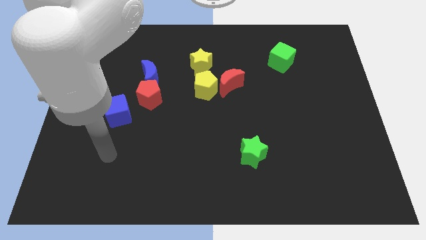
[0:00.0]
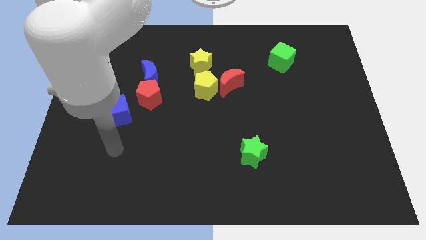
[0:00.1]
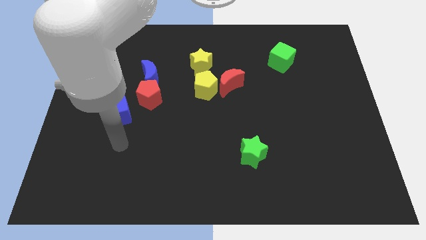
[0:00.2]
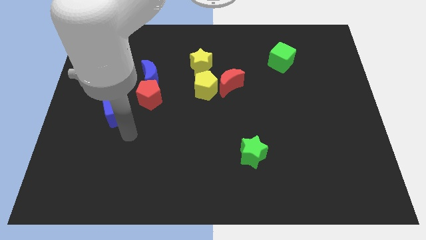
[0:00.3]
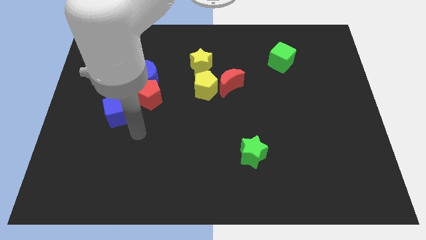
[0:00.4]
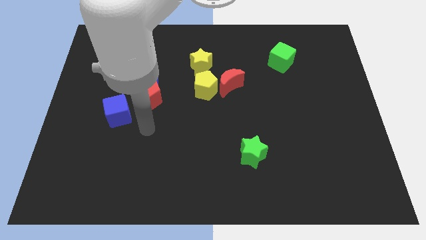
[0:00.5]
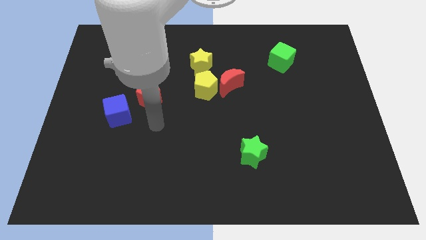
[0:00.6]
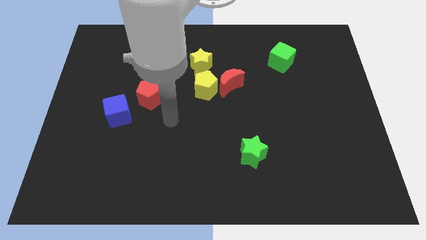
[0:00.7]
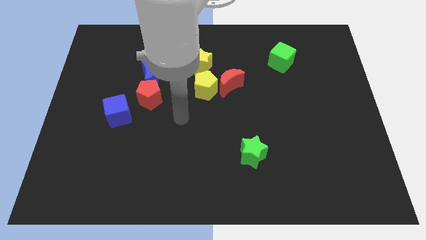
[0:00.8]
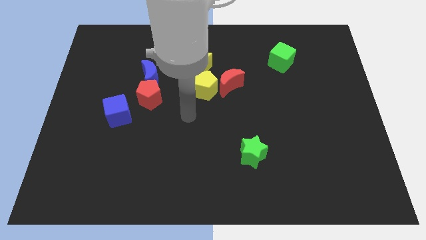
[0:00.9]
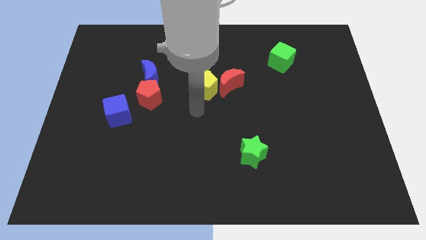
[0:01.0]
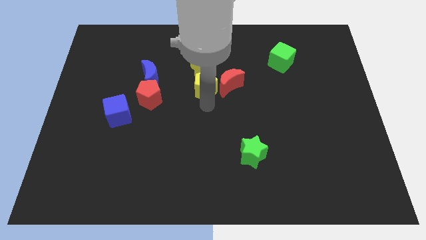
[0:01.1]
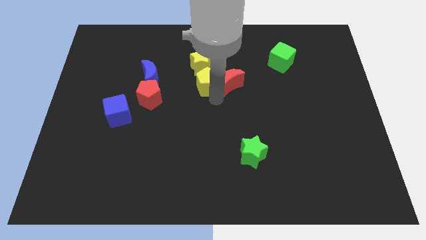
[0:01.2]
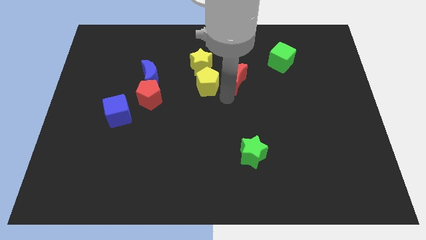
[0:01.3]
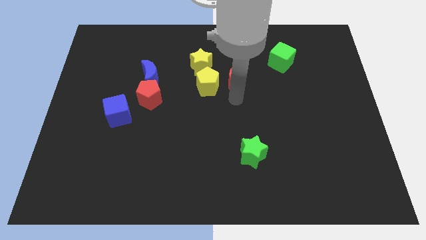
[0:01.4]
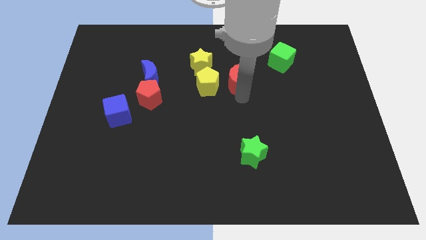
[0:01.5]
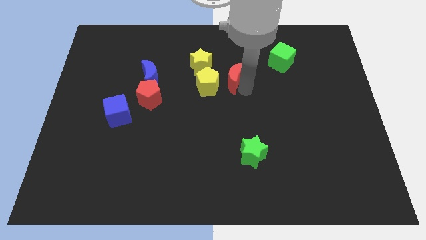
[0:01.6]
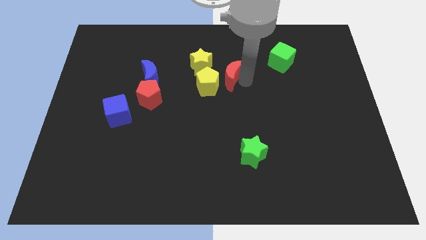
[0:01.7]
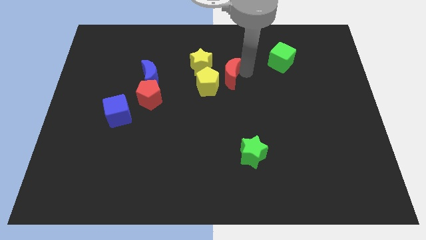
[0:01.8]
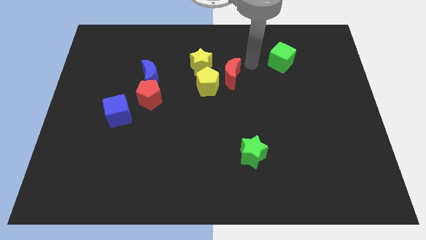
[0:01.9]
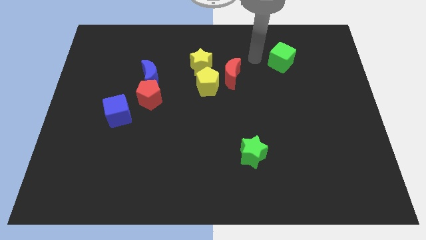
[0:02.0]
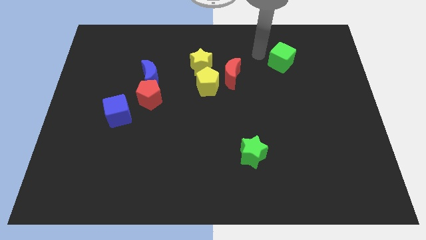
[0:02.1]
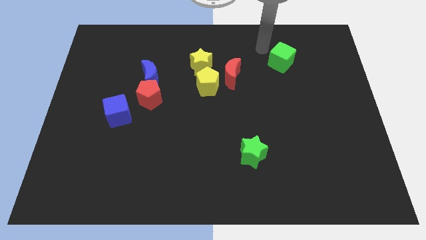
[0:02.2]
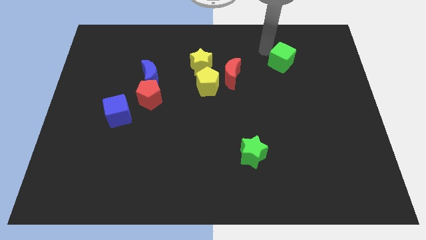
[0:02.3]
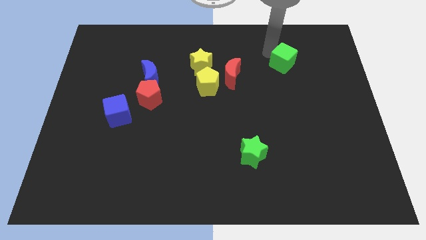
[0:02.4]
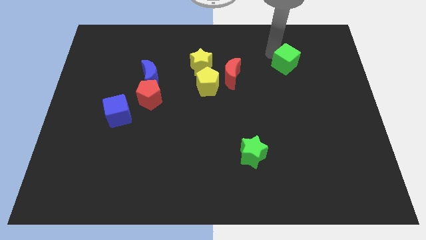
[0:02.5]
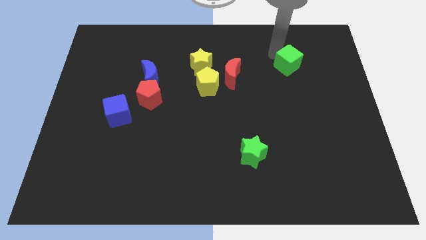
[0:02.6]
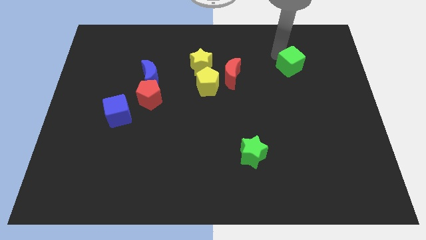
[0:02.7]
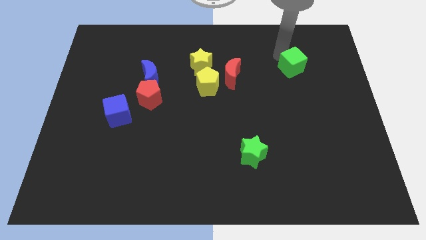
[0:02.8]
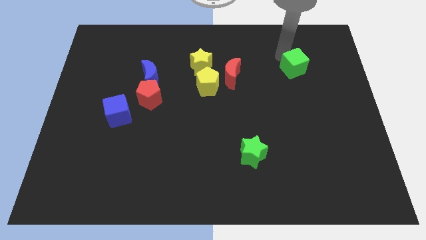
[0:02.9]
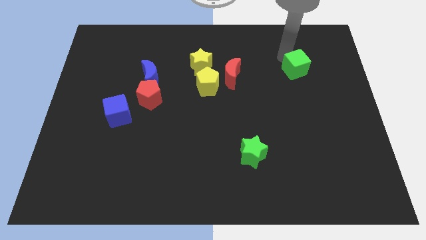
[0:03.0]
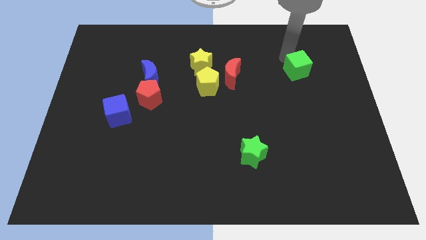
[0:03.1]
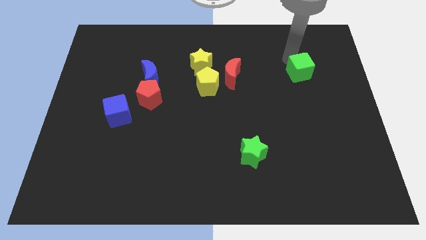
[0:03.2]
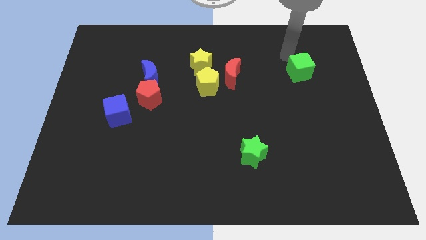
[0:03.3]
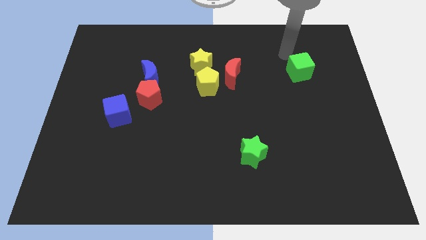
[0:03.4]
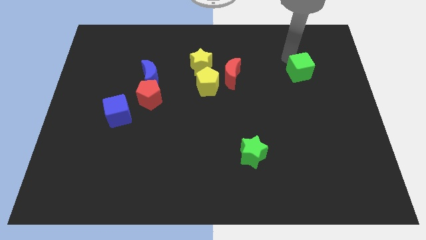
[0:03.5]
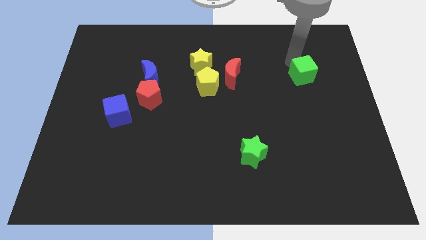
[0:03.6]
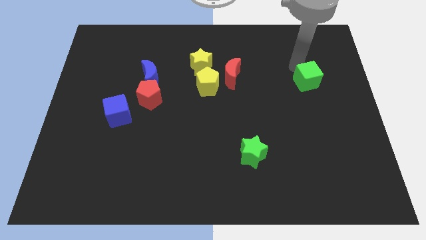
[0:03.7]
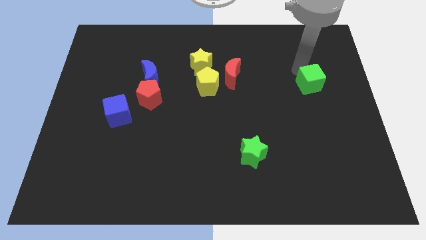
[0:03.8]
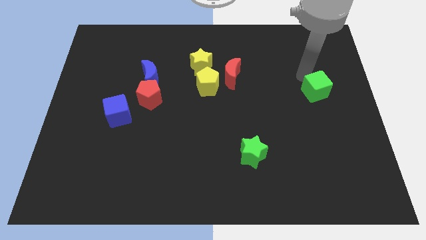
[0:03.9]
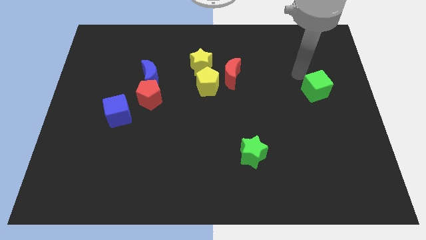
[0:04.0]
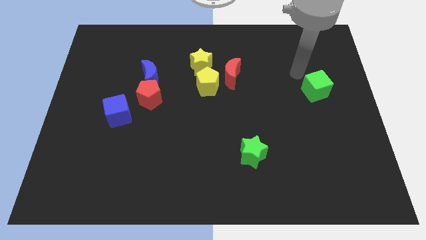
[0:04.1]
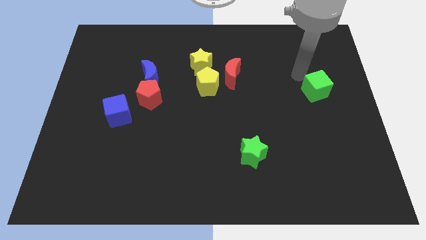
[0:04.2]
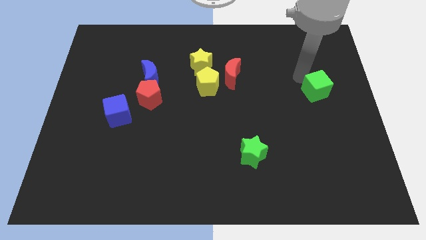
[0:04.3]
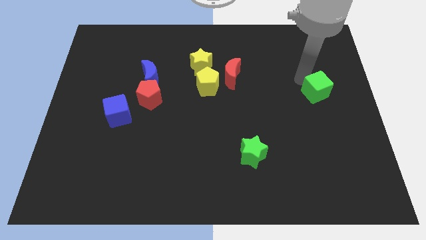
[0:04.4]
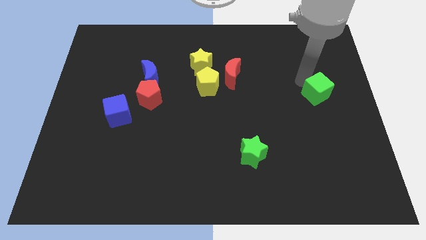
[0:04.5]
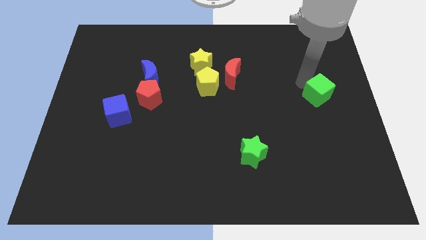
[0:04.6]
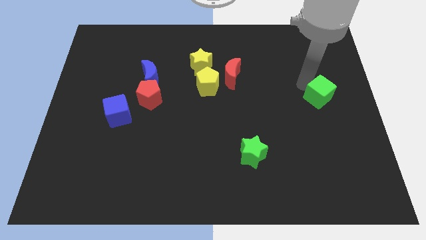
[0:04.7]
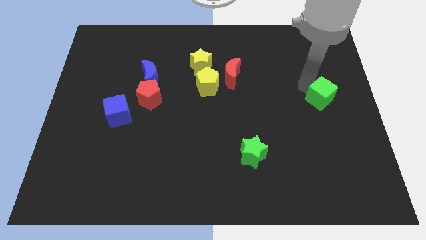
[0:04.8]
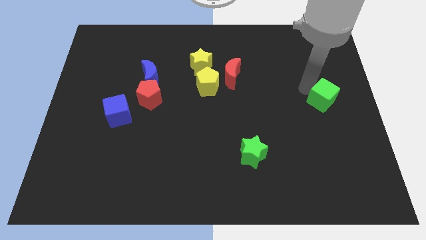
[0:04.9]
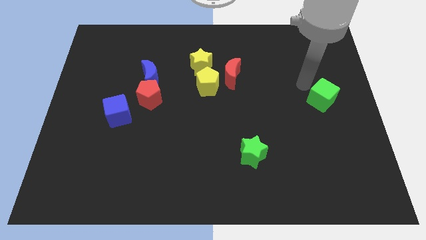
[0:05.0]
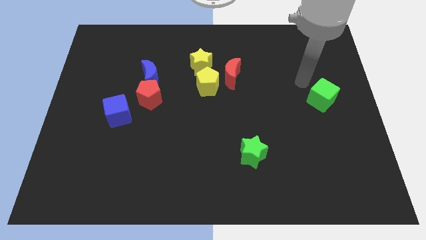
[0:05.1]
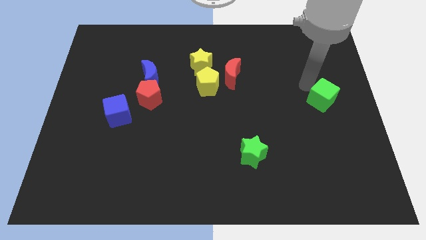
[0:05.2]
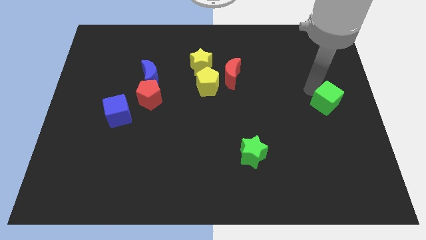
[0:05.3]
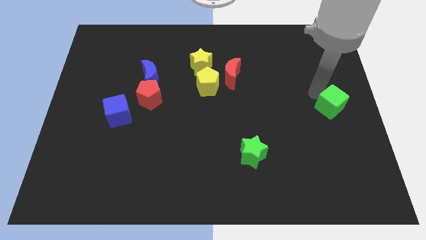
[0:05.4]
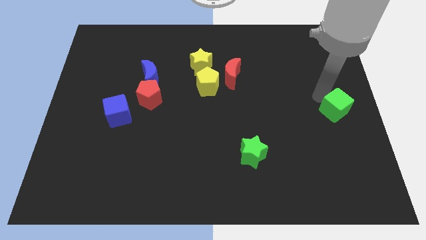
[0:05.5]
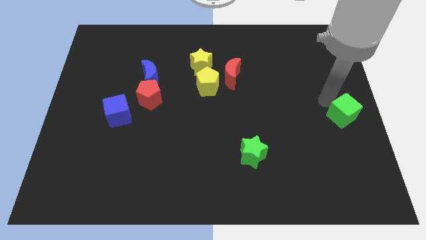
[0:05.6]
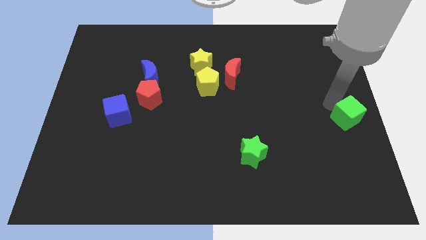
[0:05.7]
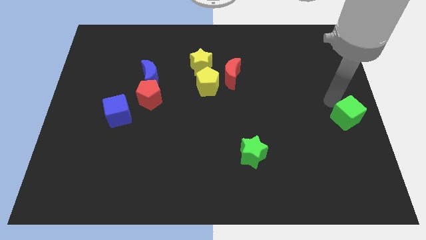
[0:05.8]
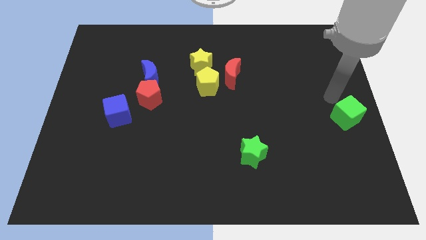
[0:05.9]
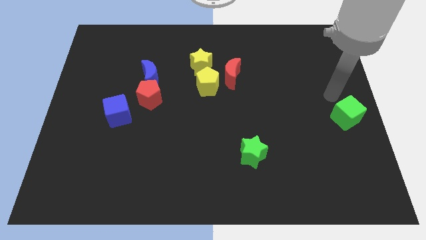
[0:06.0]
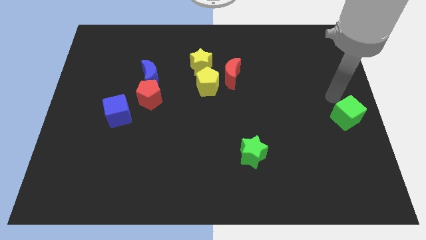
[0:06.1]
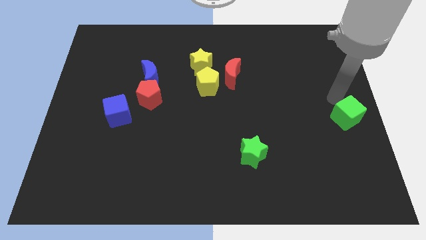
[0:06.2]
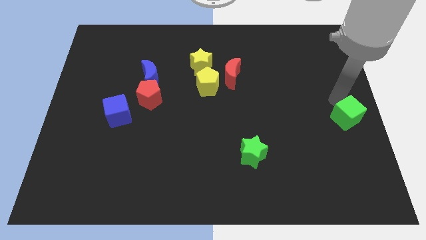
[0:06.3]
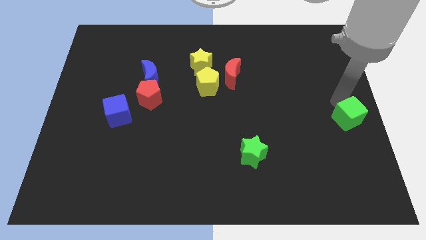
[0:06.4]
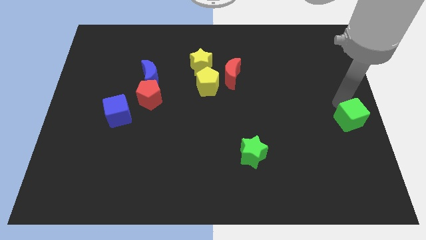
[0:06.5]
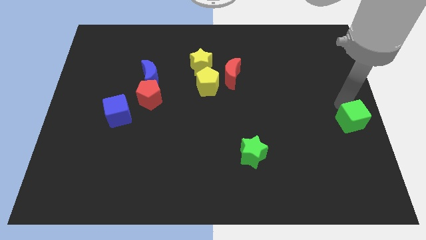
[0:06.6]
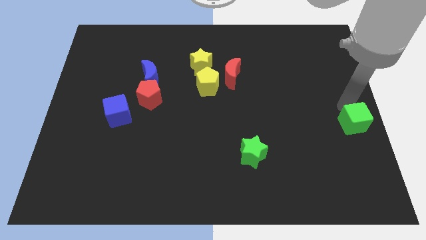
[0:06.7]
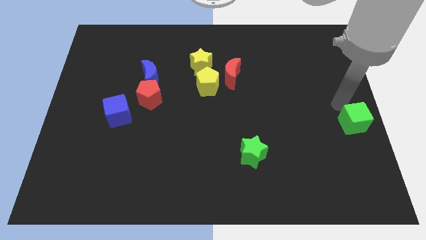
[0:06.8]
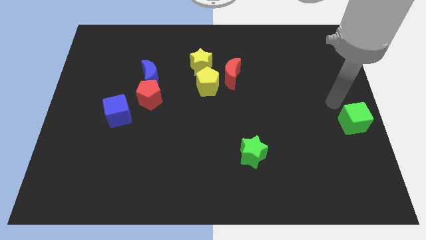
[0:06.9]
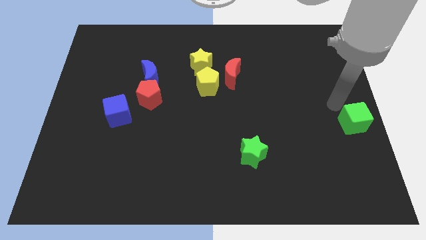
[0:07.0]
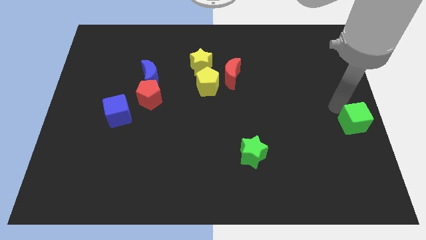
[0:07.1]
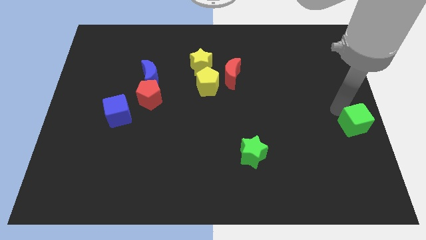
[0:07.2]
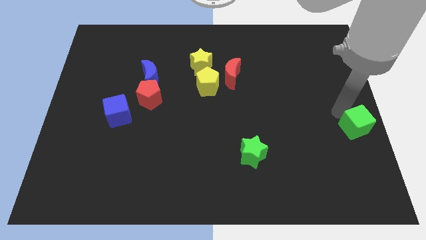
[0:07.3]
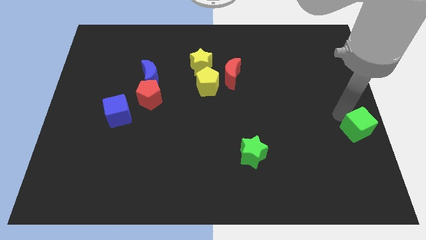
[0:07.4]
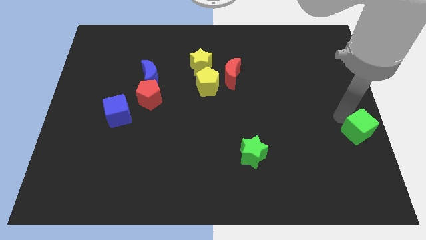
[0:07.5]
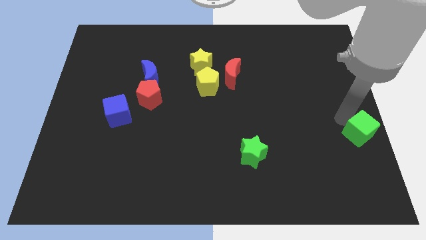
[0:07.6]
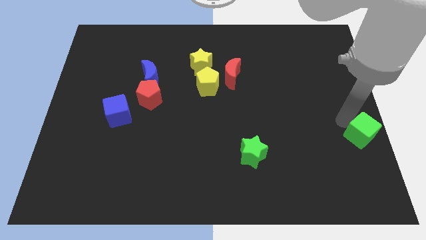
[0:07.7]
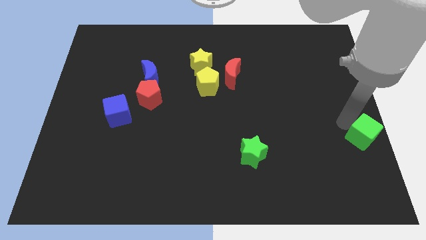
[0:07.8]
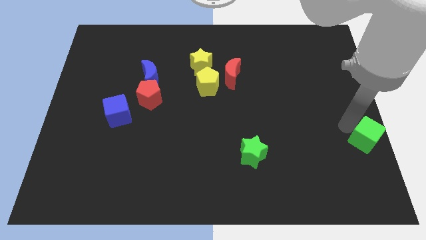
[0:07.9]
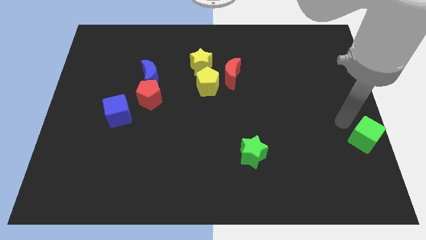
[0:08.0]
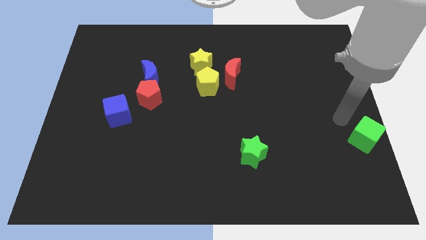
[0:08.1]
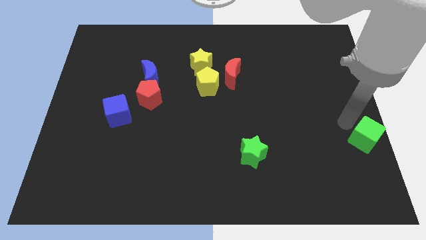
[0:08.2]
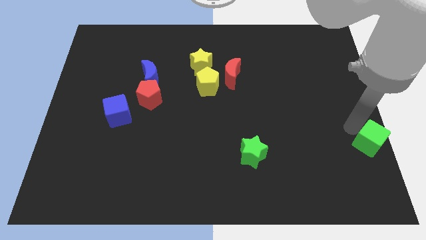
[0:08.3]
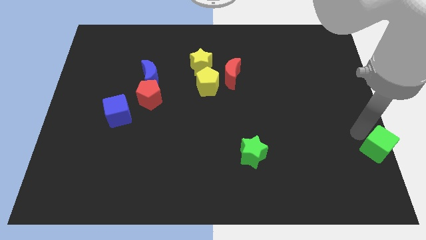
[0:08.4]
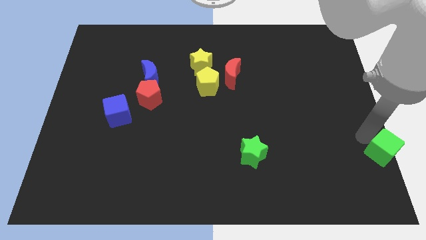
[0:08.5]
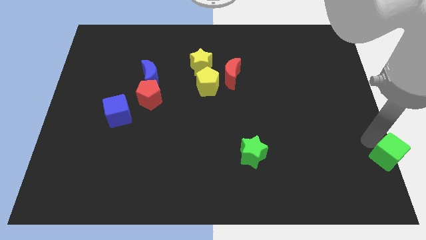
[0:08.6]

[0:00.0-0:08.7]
move the green cube to the bottom right
